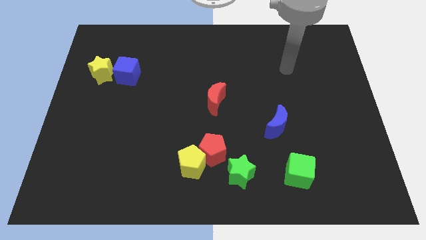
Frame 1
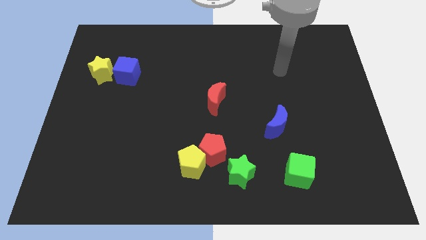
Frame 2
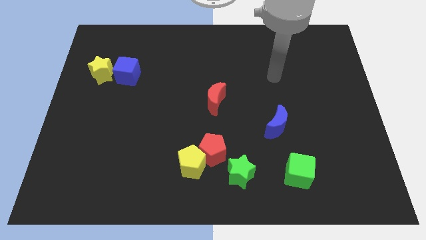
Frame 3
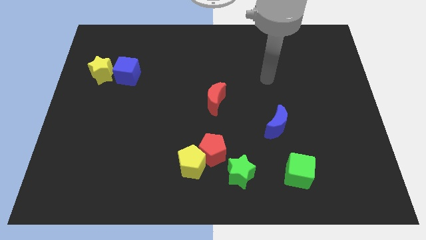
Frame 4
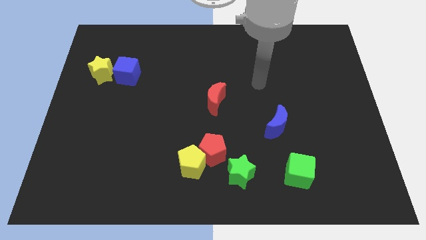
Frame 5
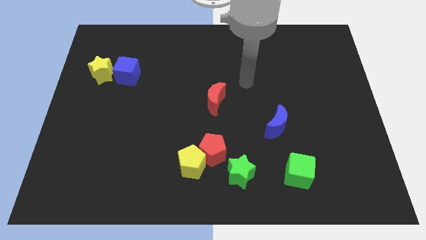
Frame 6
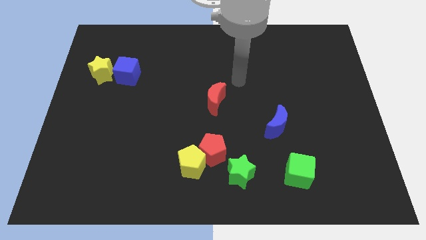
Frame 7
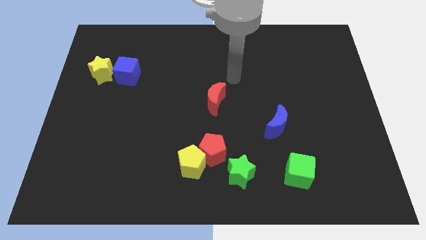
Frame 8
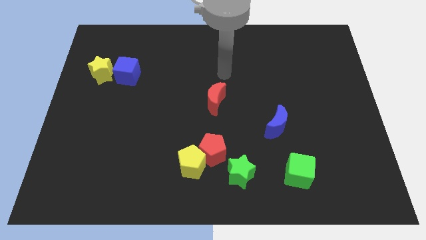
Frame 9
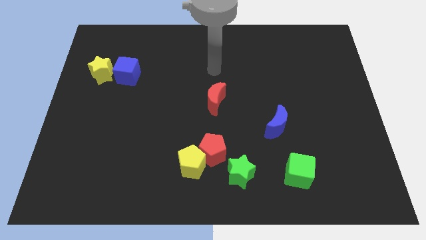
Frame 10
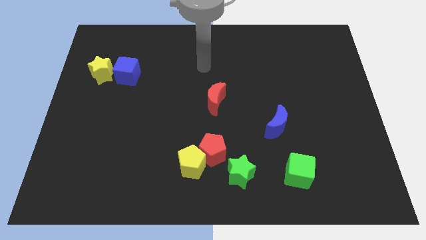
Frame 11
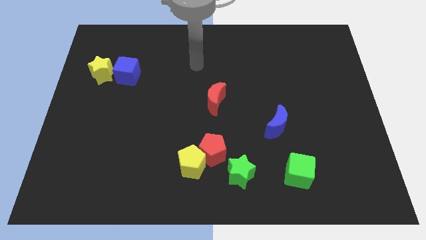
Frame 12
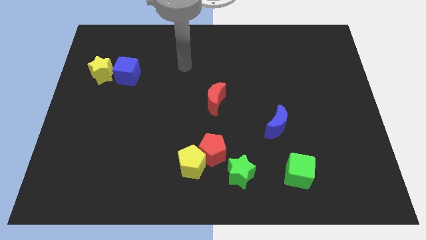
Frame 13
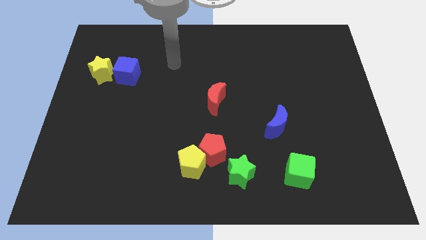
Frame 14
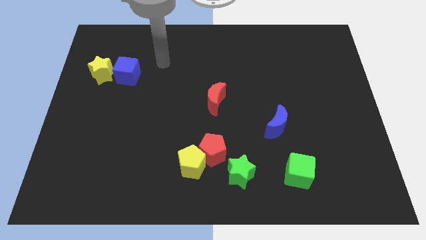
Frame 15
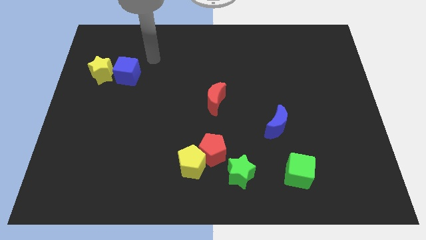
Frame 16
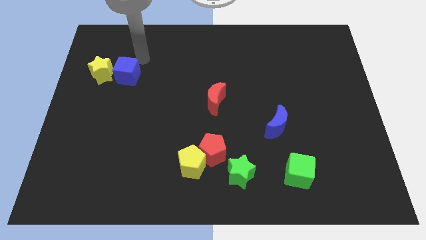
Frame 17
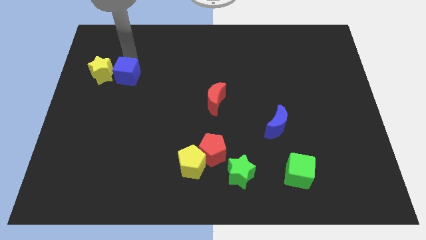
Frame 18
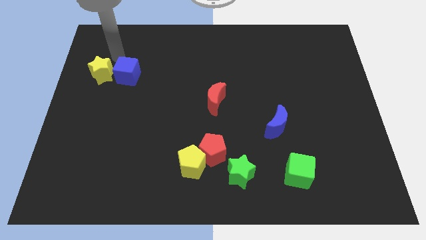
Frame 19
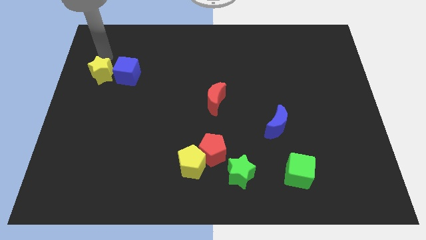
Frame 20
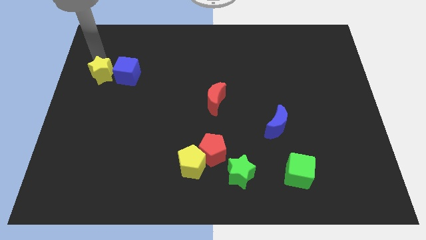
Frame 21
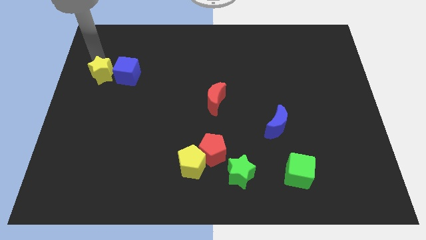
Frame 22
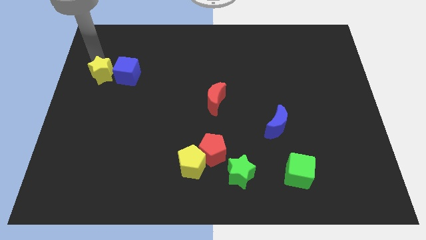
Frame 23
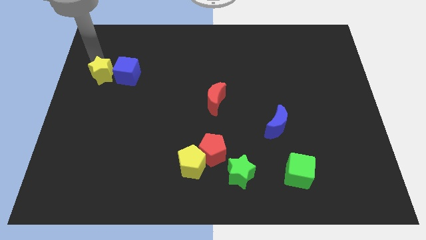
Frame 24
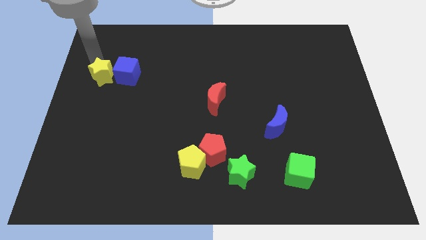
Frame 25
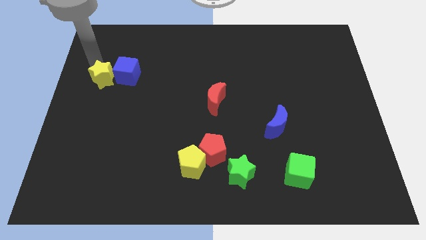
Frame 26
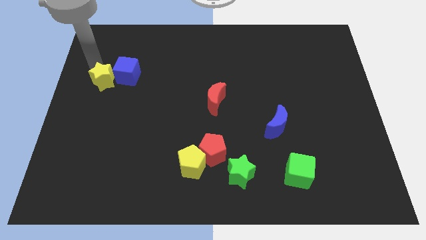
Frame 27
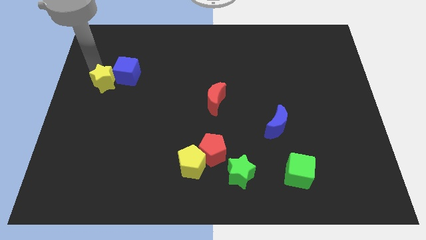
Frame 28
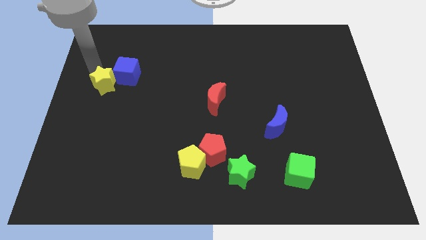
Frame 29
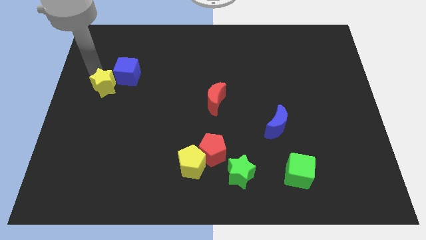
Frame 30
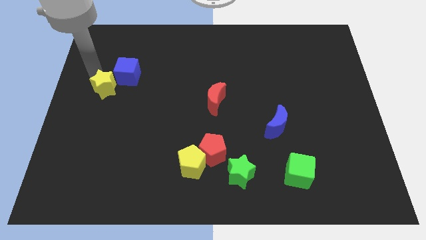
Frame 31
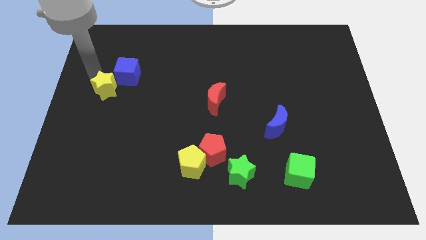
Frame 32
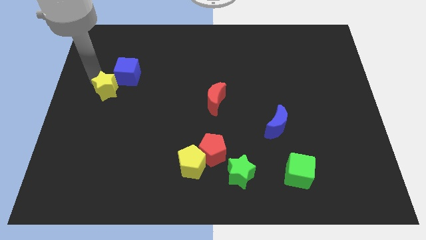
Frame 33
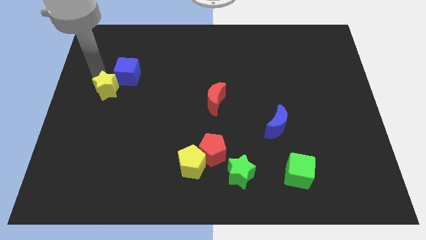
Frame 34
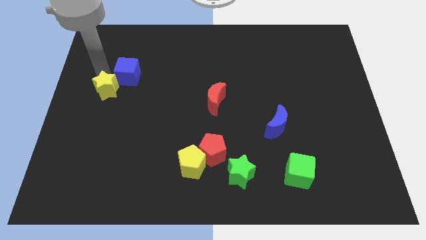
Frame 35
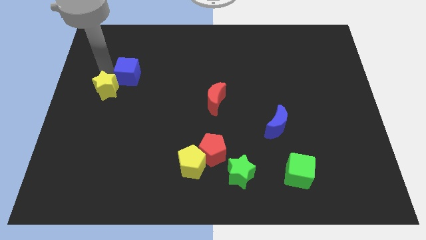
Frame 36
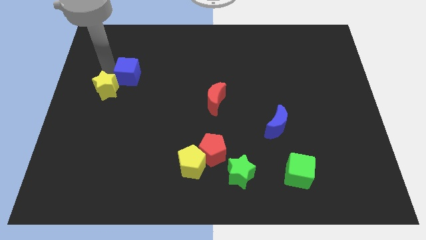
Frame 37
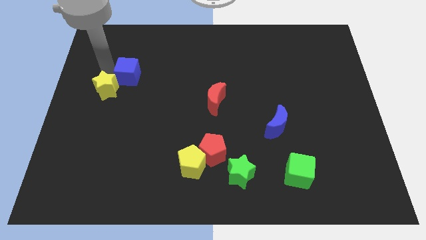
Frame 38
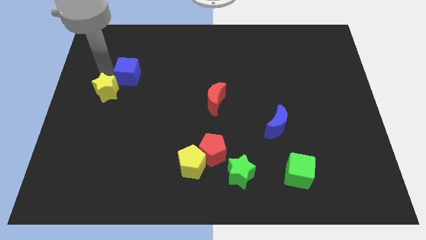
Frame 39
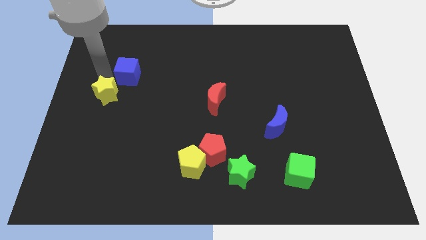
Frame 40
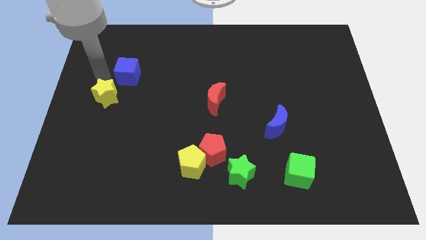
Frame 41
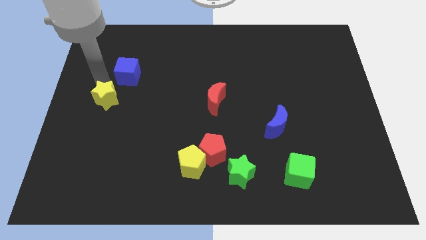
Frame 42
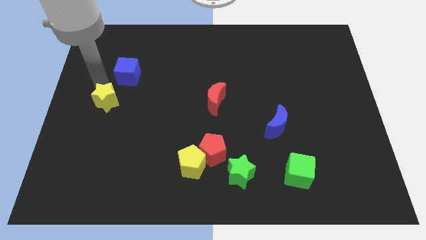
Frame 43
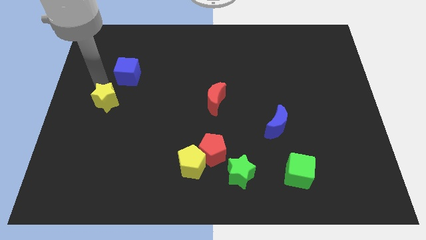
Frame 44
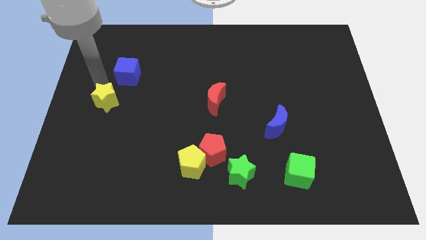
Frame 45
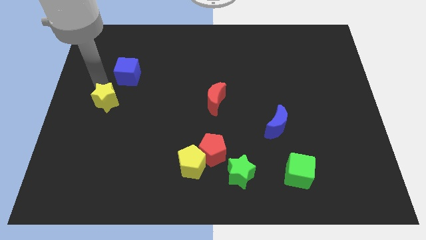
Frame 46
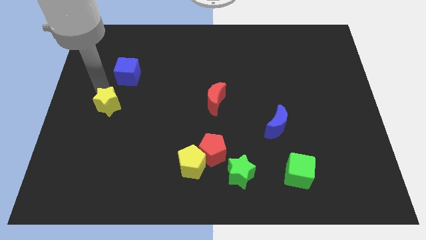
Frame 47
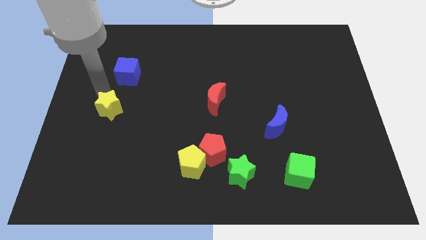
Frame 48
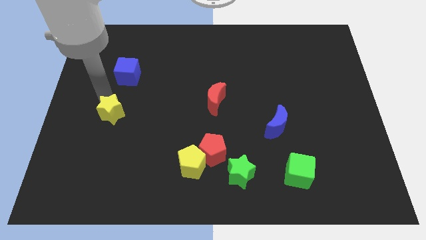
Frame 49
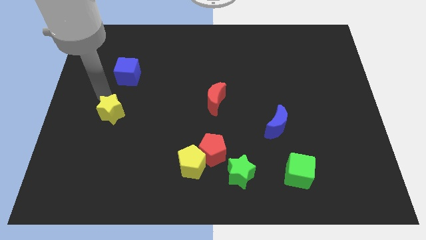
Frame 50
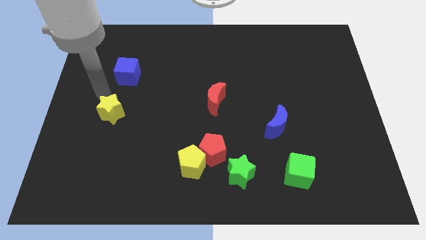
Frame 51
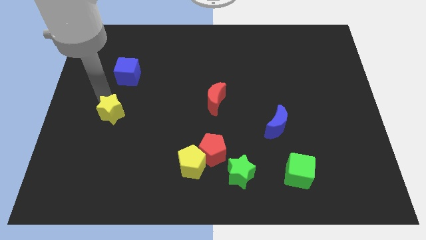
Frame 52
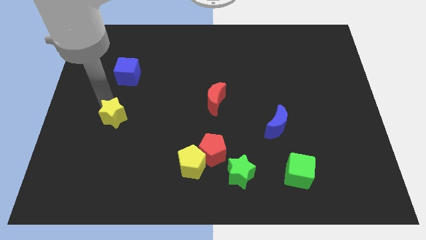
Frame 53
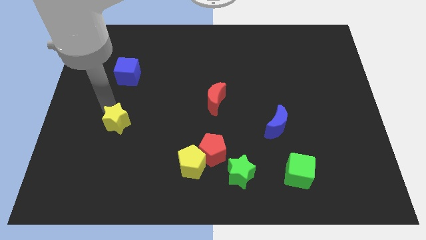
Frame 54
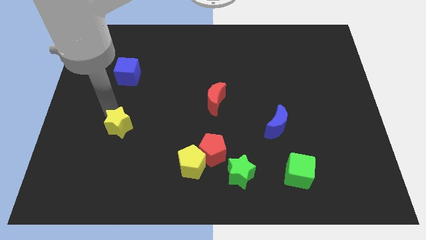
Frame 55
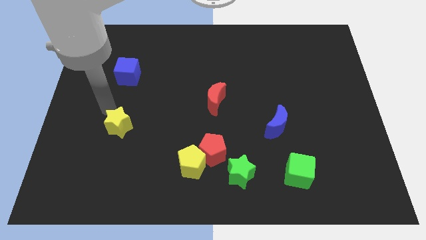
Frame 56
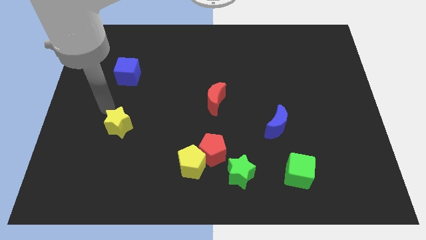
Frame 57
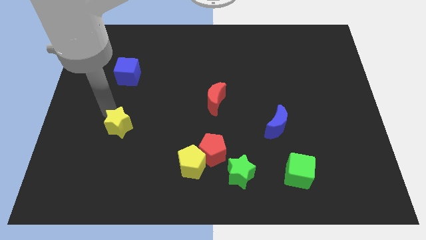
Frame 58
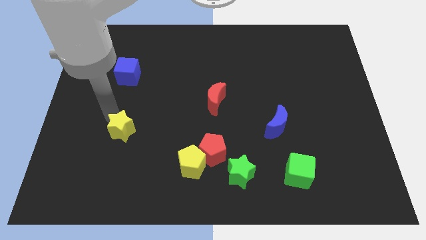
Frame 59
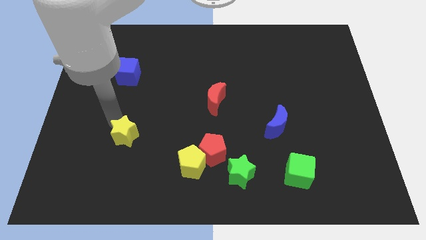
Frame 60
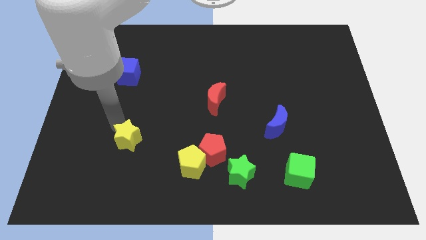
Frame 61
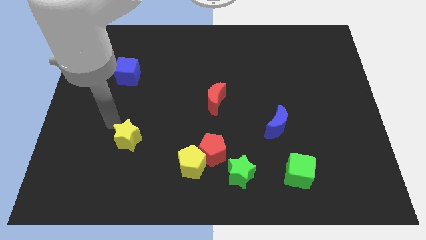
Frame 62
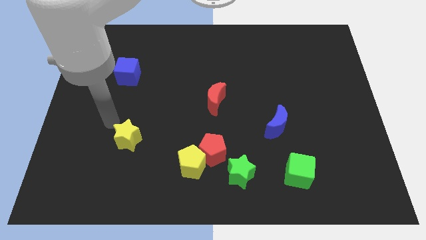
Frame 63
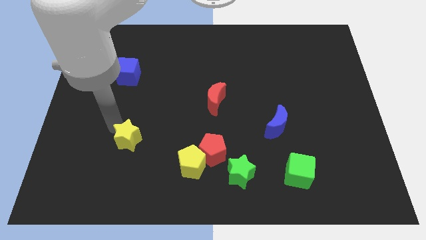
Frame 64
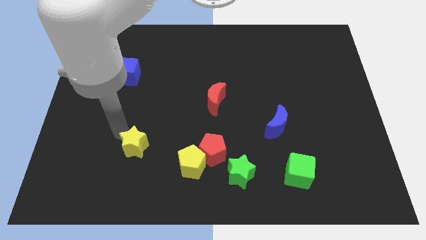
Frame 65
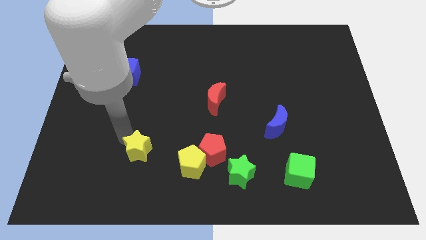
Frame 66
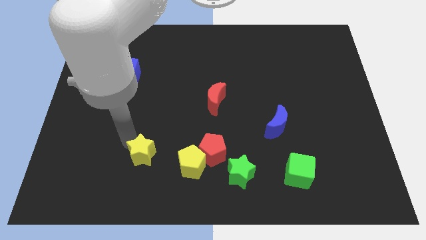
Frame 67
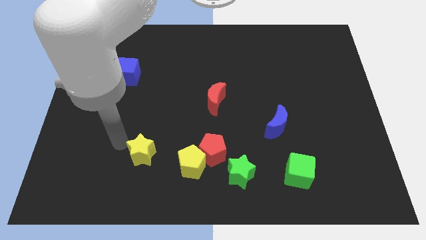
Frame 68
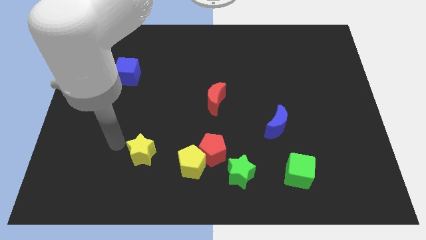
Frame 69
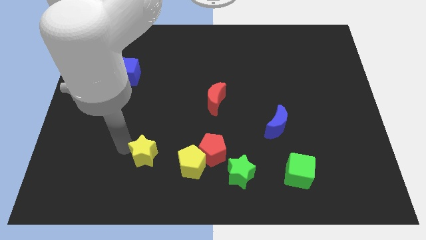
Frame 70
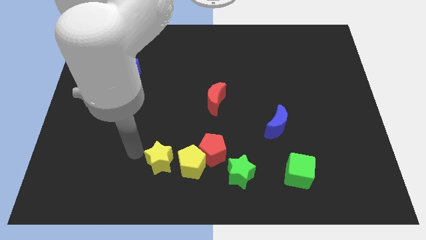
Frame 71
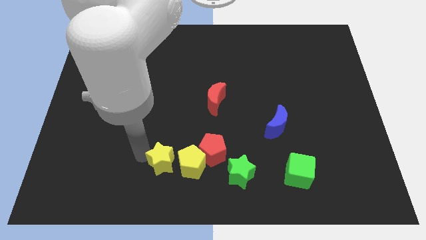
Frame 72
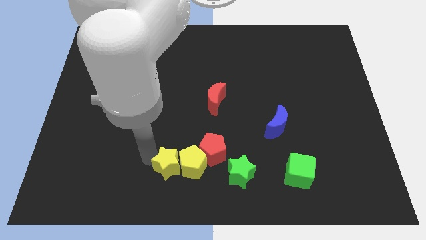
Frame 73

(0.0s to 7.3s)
slide the yellow star just left of the green star
